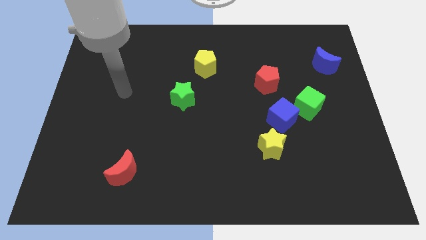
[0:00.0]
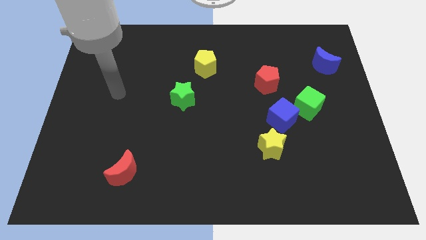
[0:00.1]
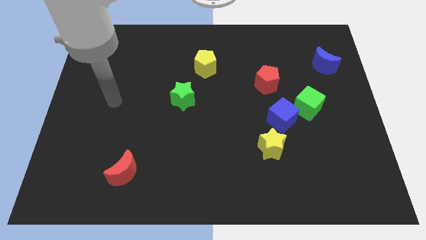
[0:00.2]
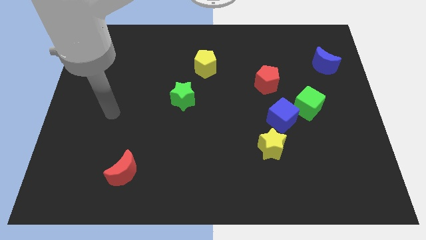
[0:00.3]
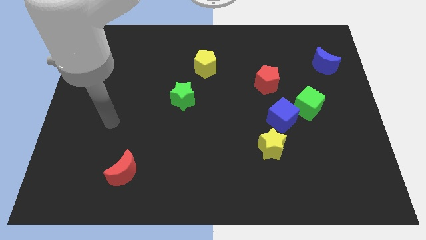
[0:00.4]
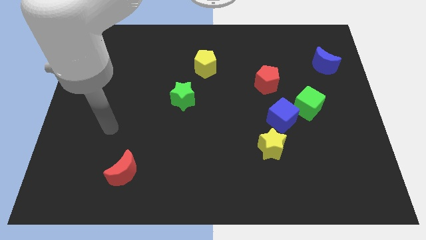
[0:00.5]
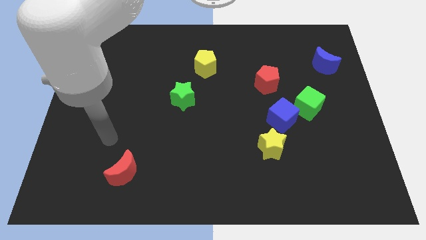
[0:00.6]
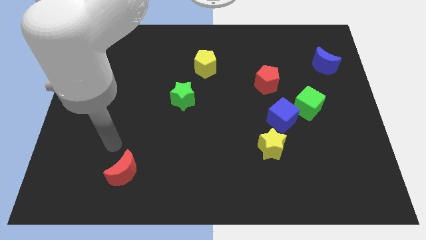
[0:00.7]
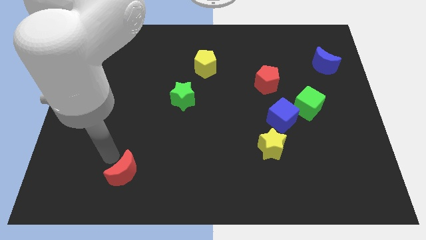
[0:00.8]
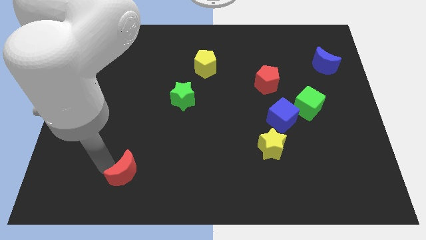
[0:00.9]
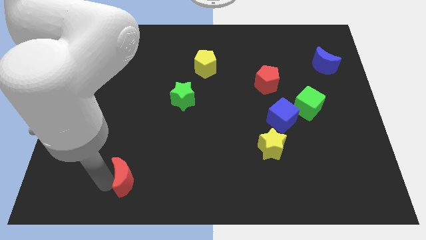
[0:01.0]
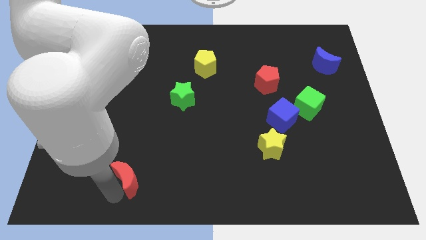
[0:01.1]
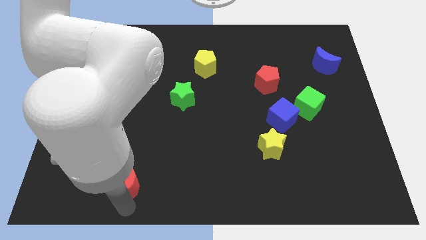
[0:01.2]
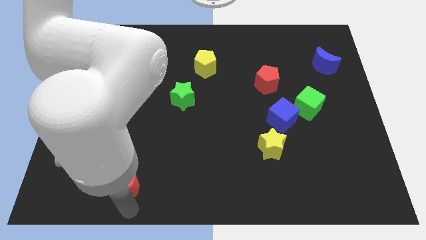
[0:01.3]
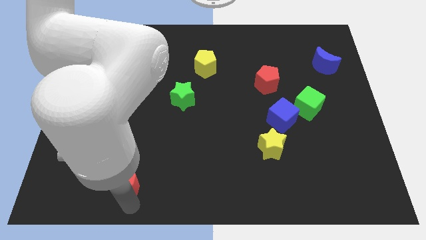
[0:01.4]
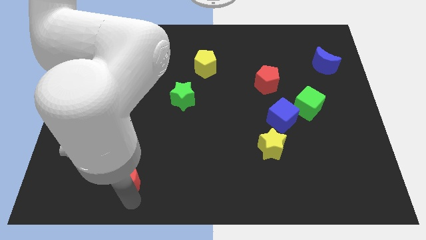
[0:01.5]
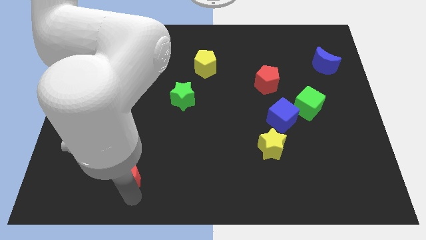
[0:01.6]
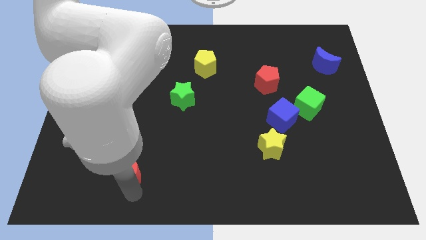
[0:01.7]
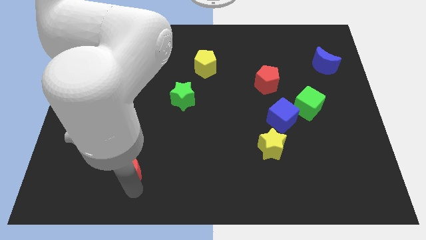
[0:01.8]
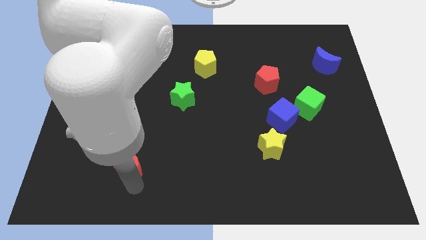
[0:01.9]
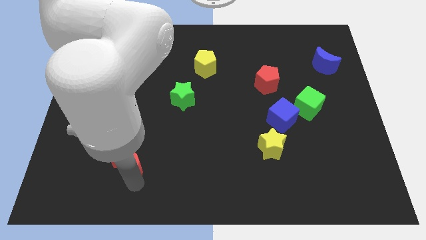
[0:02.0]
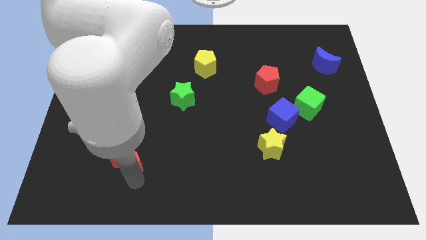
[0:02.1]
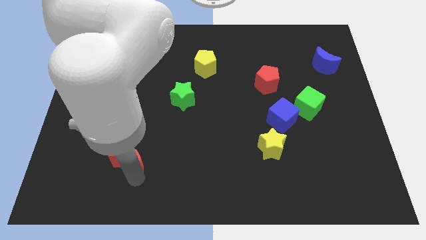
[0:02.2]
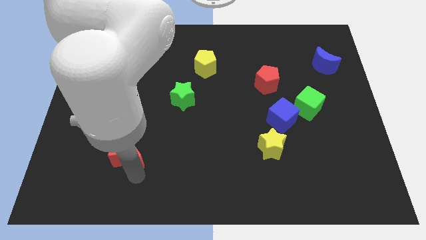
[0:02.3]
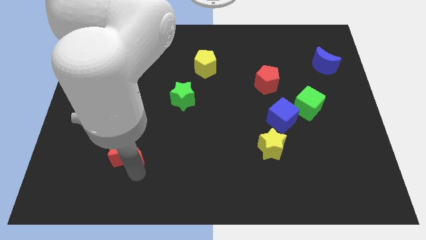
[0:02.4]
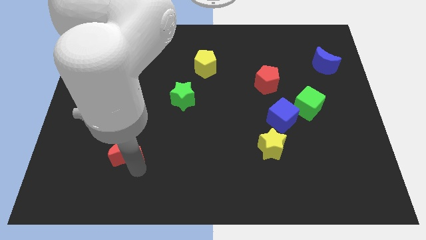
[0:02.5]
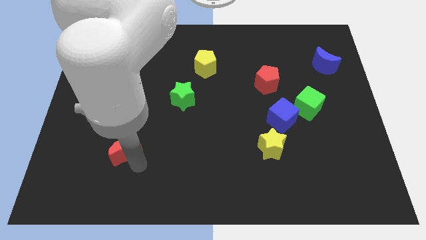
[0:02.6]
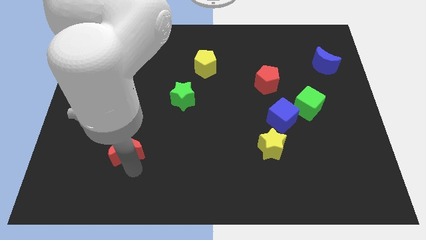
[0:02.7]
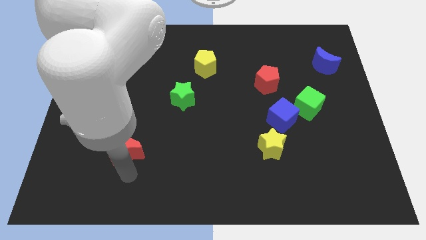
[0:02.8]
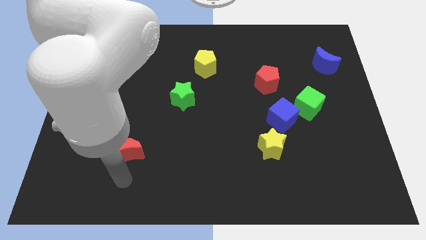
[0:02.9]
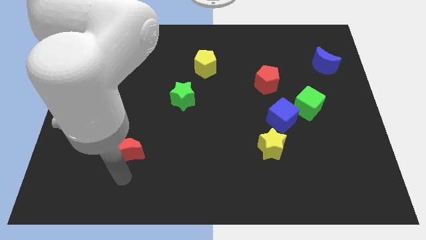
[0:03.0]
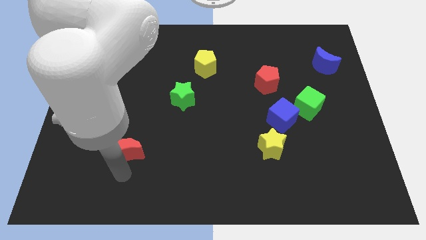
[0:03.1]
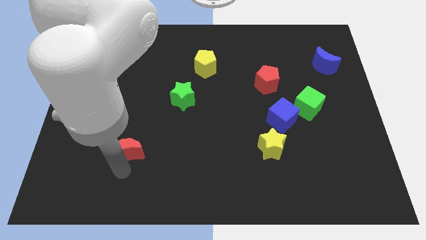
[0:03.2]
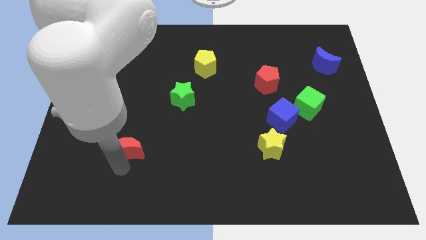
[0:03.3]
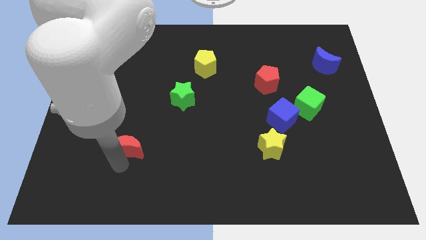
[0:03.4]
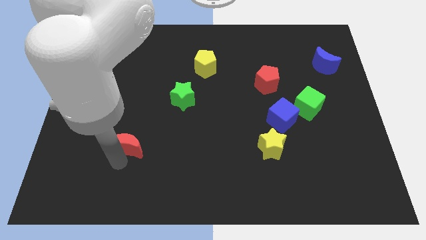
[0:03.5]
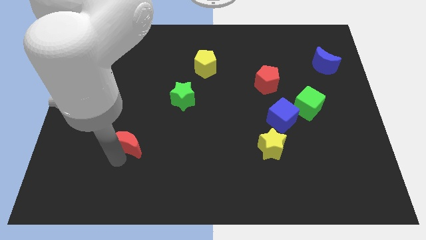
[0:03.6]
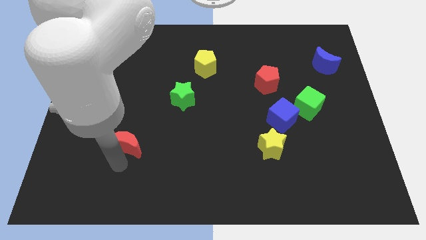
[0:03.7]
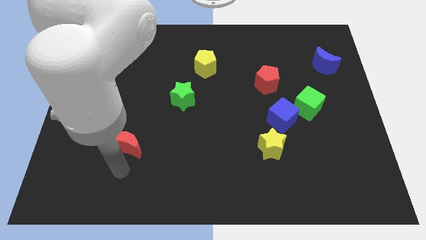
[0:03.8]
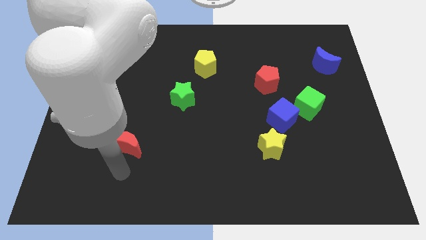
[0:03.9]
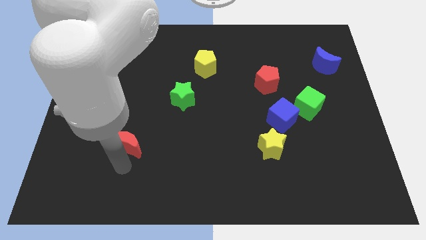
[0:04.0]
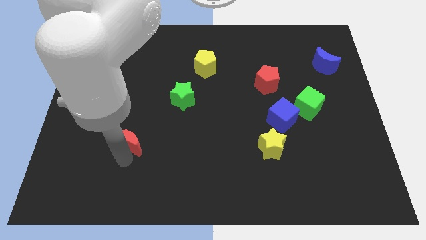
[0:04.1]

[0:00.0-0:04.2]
slide the red moon slightly up

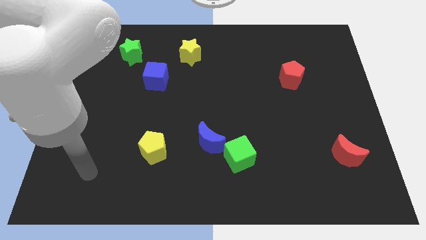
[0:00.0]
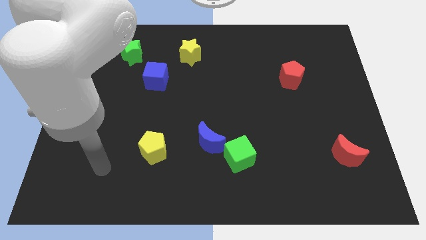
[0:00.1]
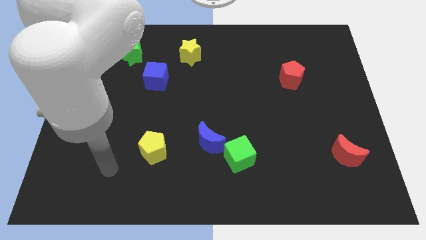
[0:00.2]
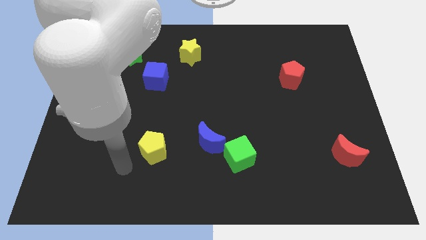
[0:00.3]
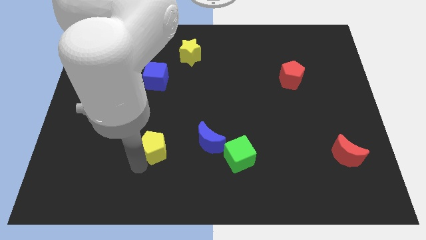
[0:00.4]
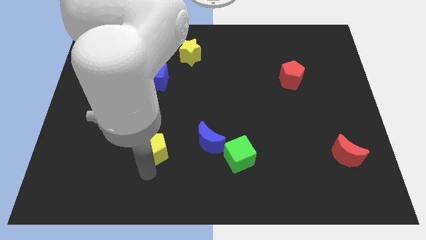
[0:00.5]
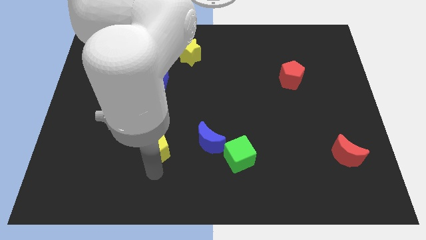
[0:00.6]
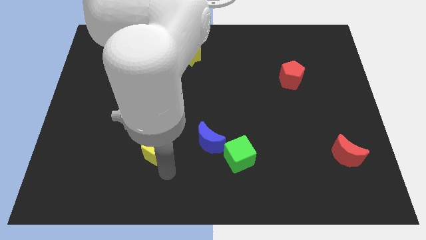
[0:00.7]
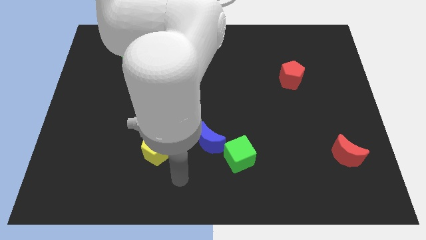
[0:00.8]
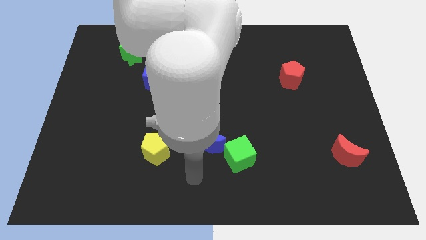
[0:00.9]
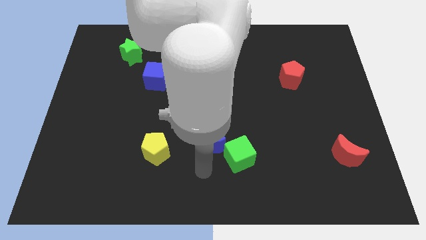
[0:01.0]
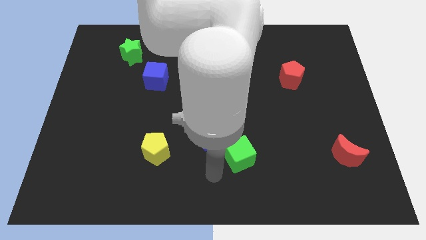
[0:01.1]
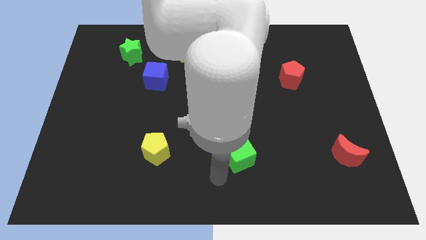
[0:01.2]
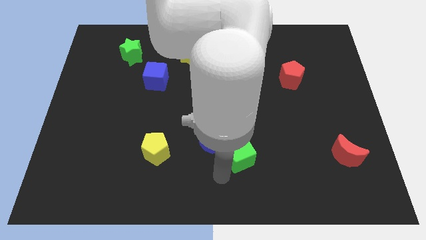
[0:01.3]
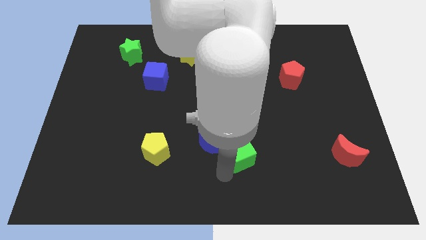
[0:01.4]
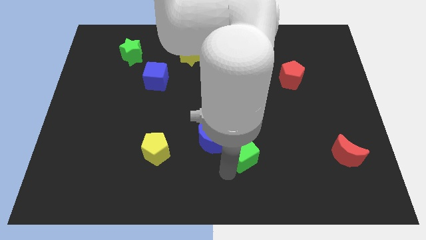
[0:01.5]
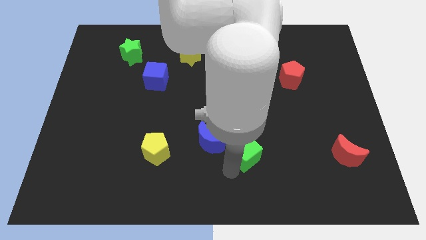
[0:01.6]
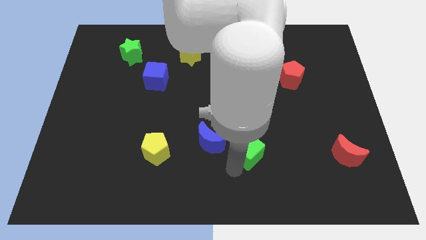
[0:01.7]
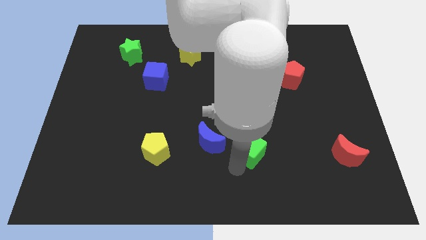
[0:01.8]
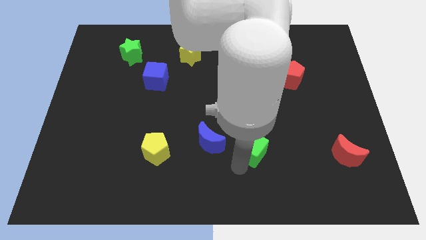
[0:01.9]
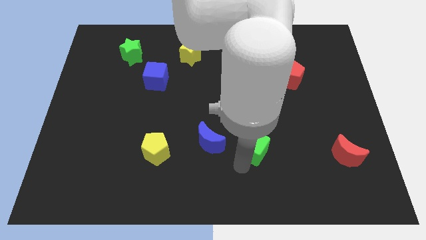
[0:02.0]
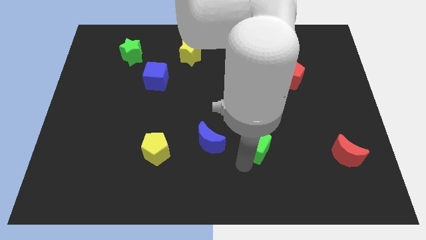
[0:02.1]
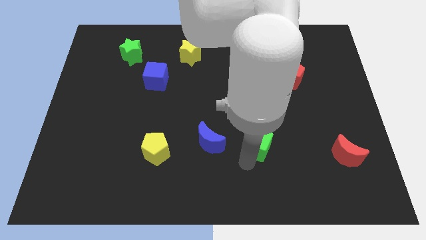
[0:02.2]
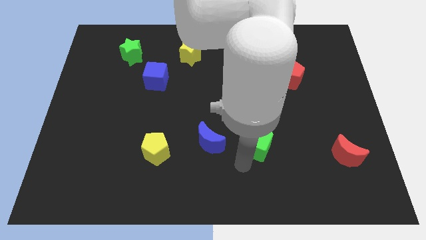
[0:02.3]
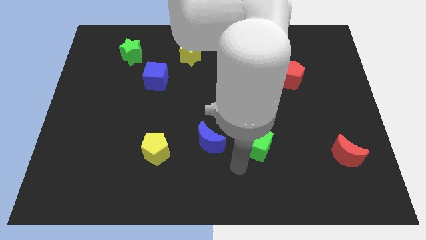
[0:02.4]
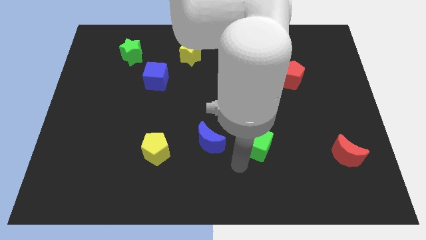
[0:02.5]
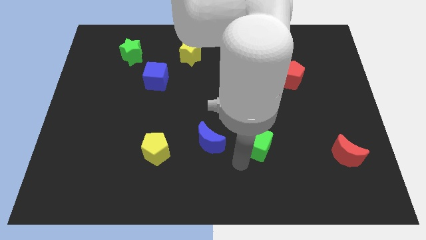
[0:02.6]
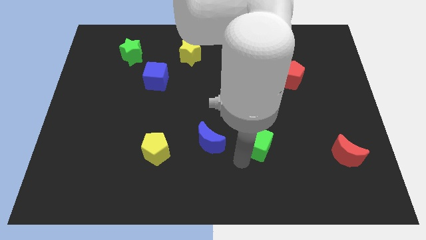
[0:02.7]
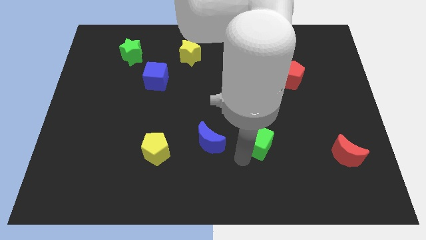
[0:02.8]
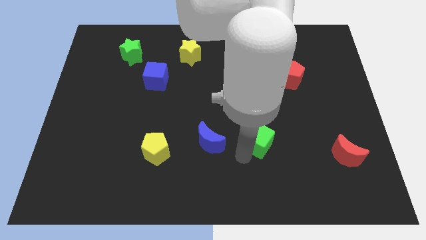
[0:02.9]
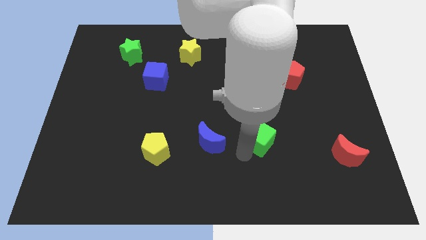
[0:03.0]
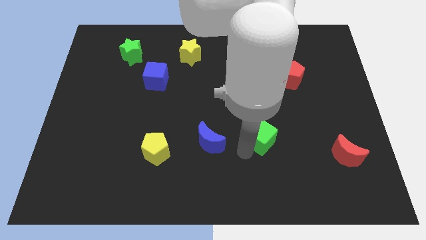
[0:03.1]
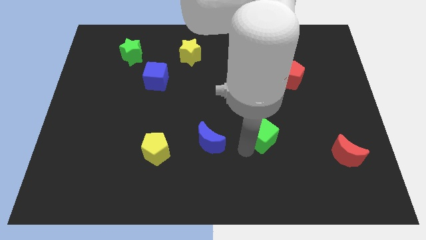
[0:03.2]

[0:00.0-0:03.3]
slightly slide the green cube up and right

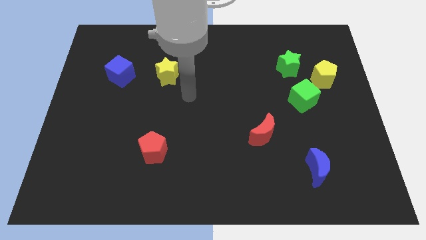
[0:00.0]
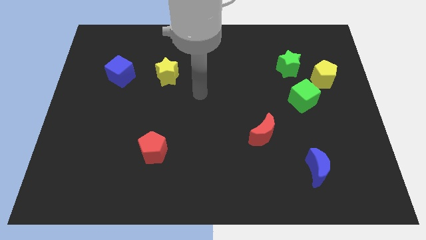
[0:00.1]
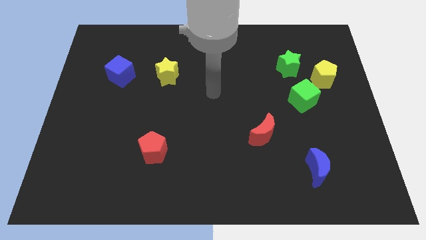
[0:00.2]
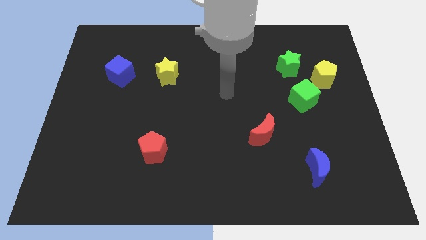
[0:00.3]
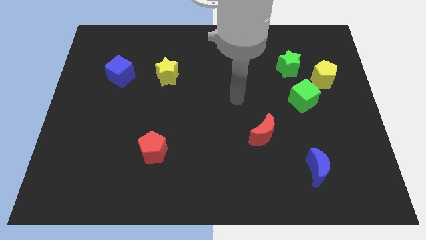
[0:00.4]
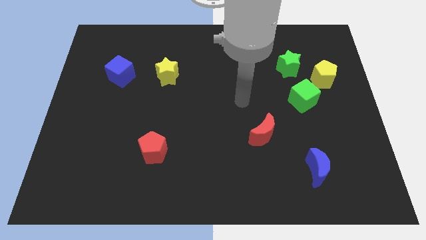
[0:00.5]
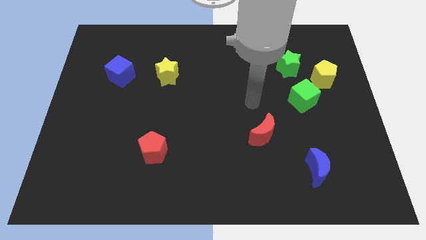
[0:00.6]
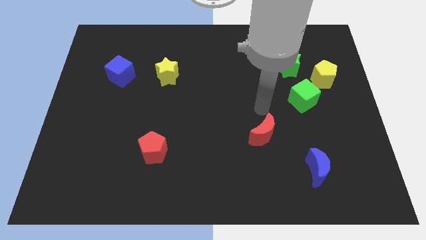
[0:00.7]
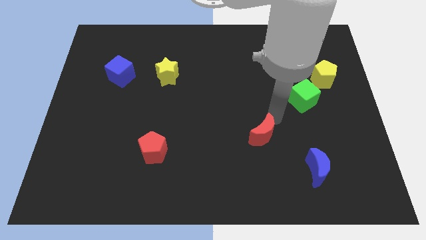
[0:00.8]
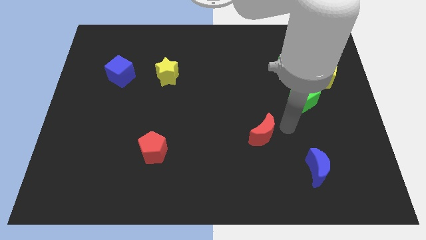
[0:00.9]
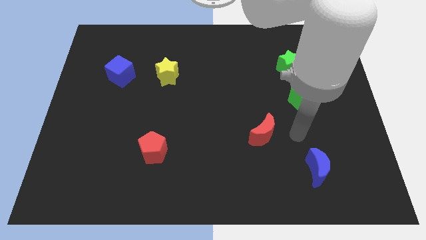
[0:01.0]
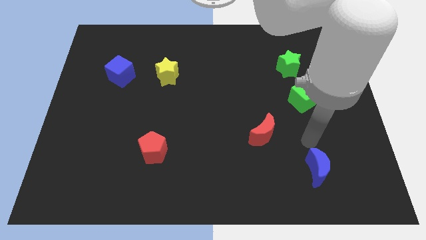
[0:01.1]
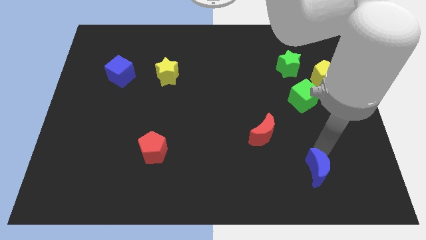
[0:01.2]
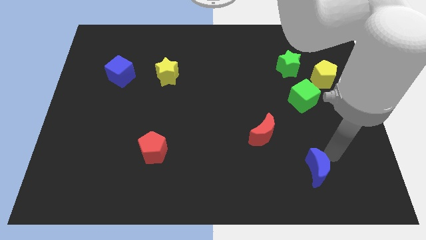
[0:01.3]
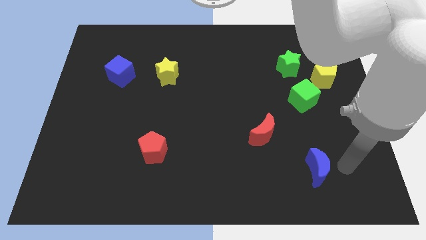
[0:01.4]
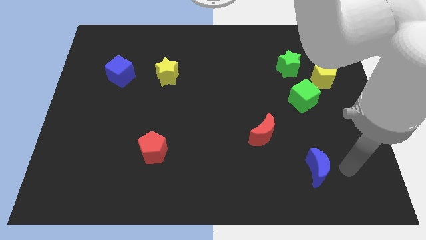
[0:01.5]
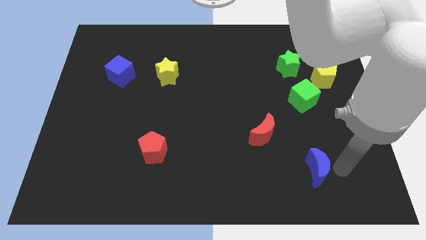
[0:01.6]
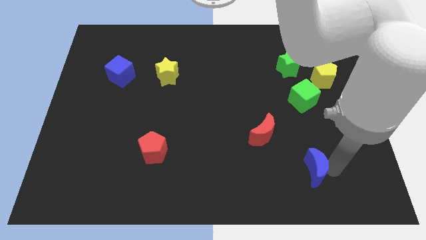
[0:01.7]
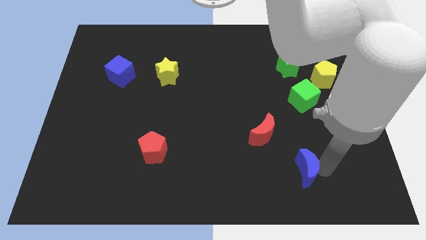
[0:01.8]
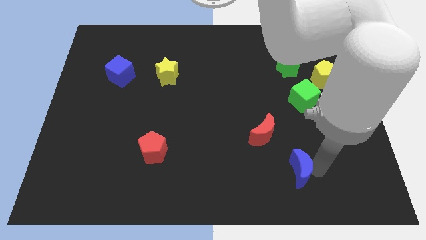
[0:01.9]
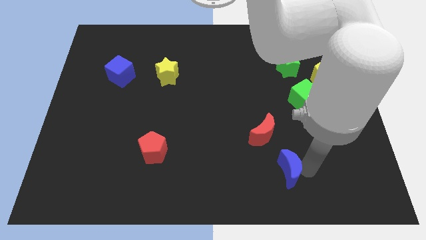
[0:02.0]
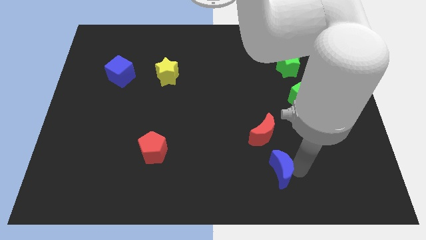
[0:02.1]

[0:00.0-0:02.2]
slightly slide the blue moon to the left
